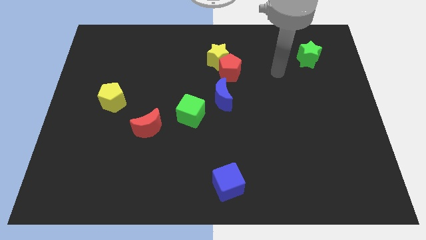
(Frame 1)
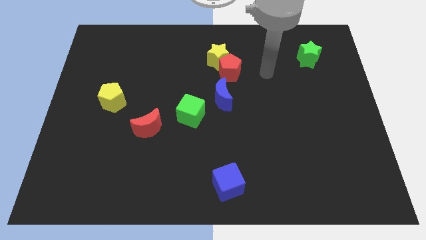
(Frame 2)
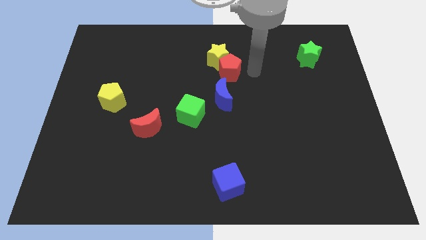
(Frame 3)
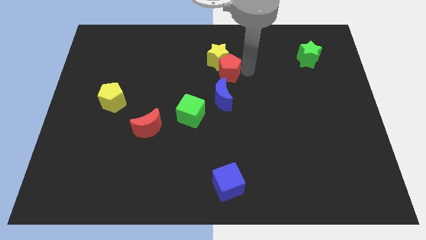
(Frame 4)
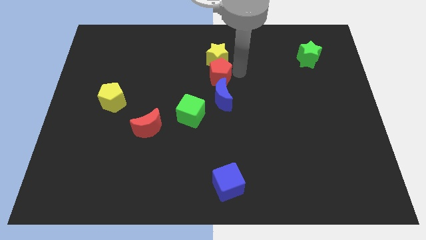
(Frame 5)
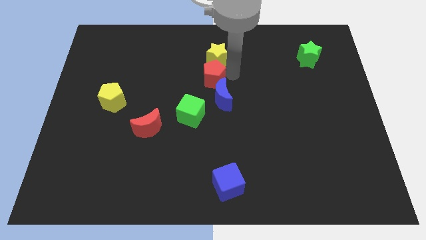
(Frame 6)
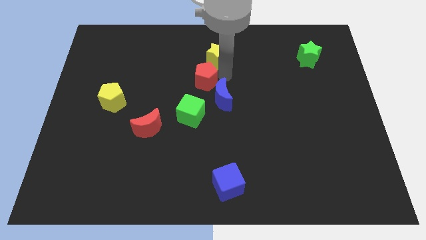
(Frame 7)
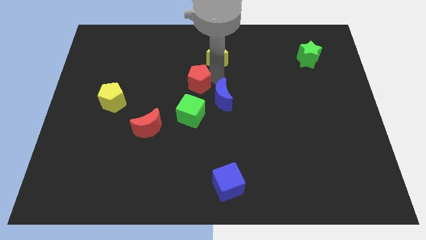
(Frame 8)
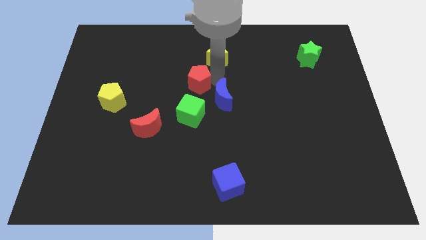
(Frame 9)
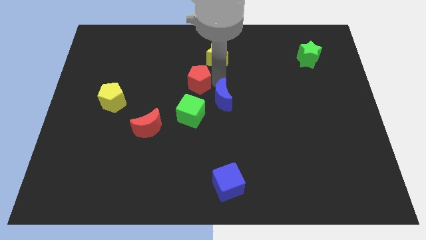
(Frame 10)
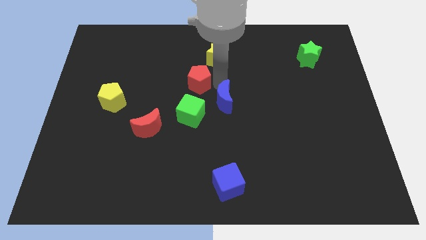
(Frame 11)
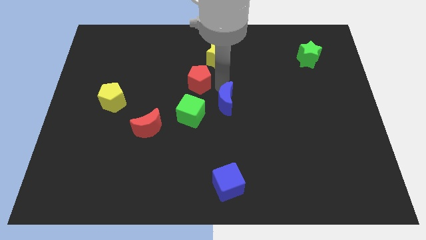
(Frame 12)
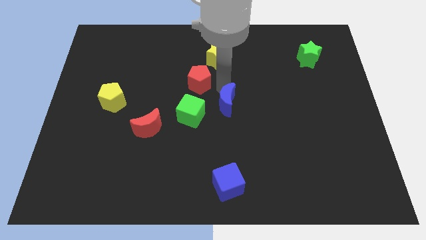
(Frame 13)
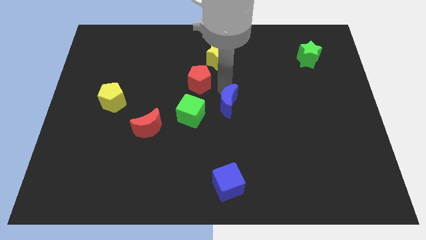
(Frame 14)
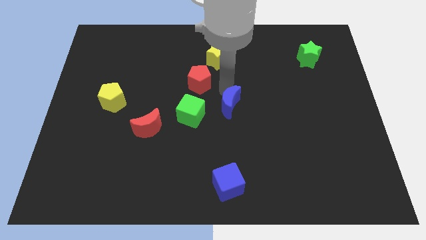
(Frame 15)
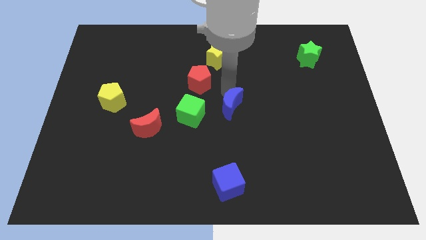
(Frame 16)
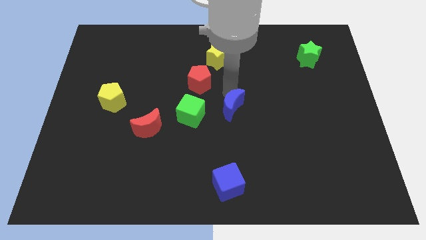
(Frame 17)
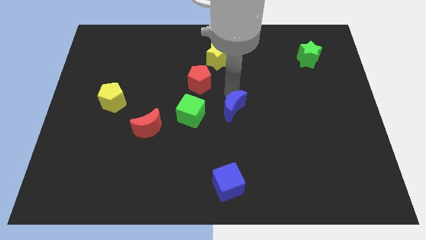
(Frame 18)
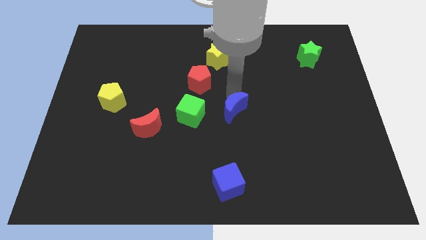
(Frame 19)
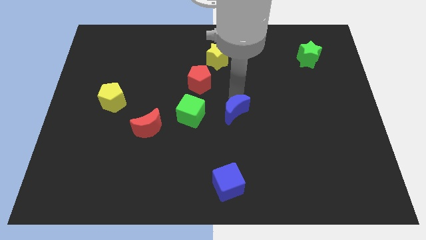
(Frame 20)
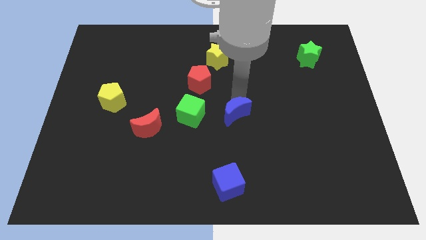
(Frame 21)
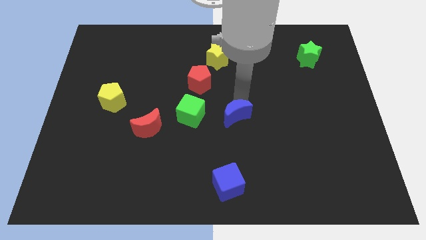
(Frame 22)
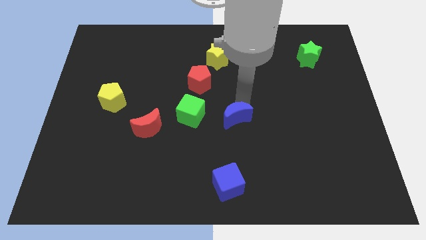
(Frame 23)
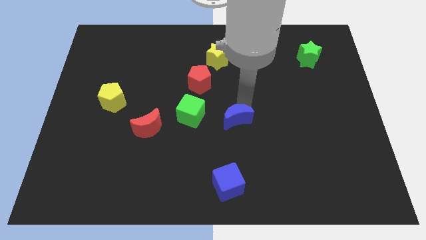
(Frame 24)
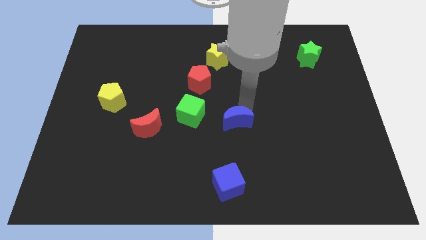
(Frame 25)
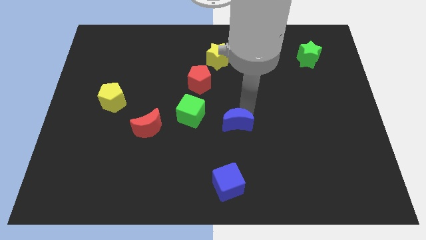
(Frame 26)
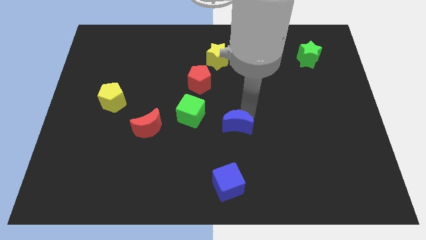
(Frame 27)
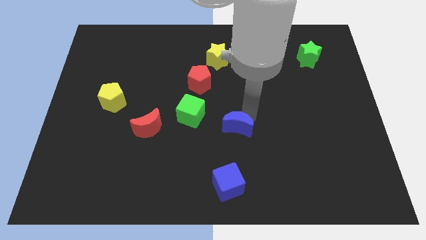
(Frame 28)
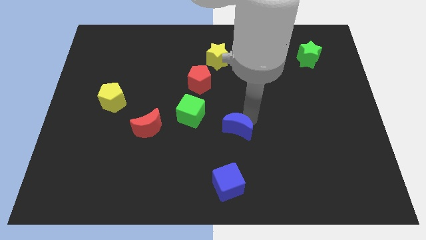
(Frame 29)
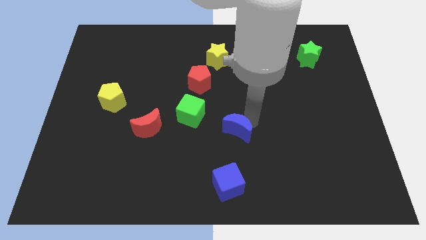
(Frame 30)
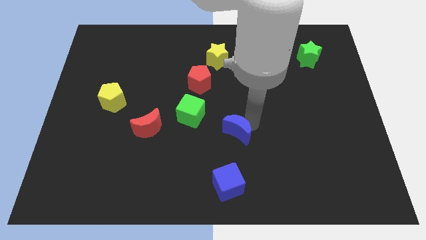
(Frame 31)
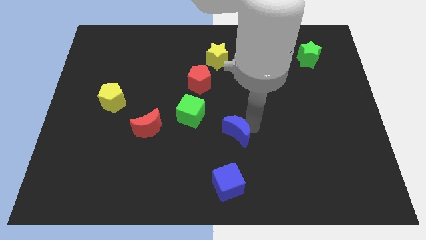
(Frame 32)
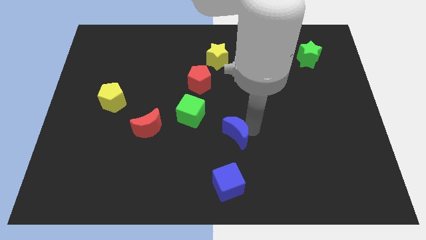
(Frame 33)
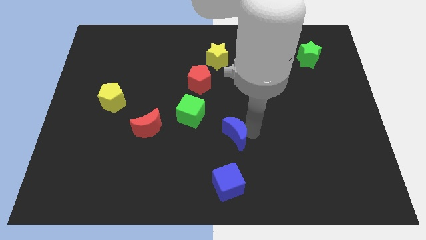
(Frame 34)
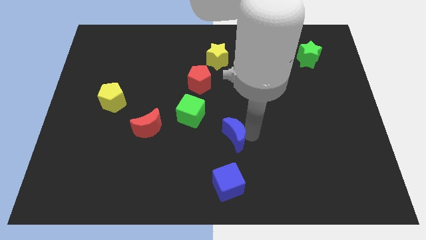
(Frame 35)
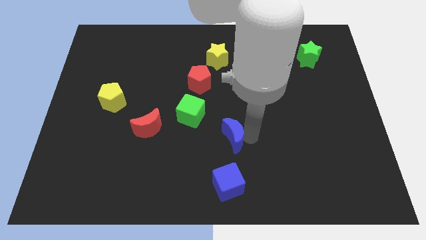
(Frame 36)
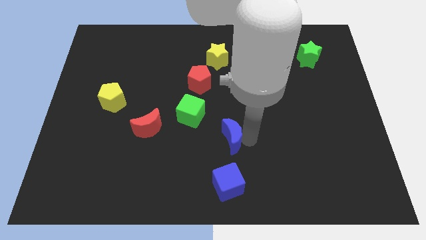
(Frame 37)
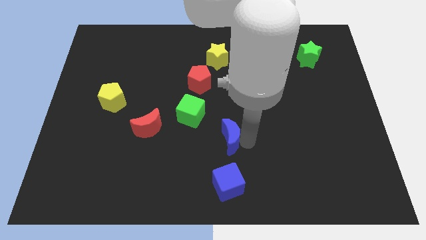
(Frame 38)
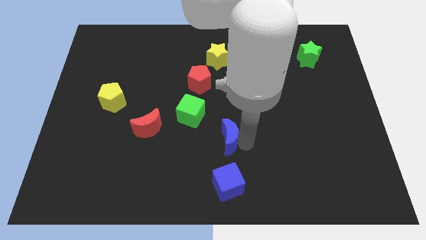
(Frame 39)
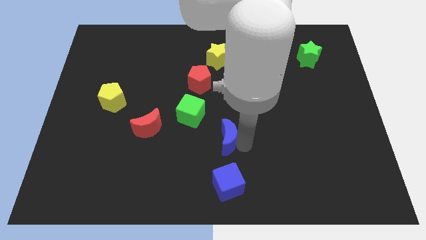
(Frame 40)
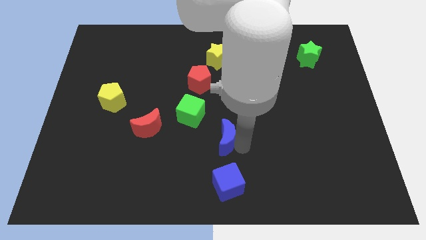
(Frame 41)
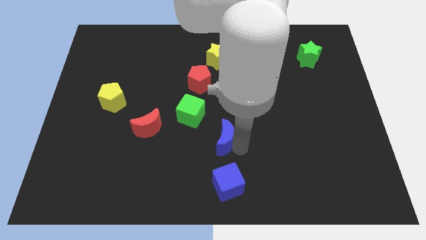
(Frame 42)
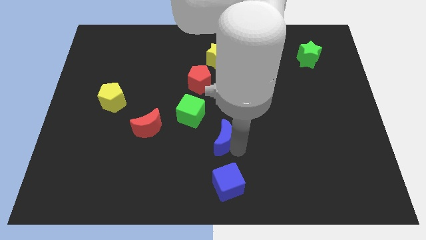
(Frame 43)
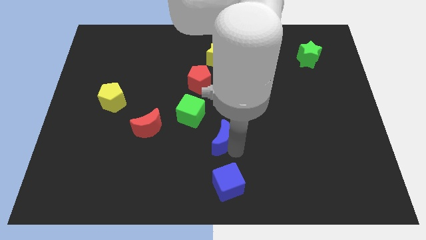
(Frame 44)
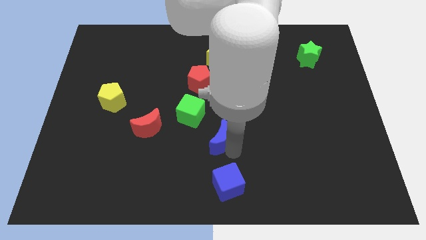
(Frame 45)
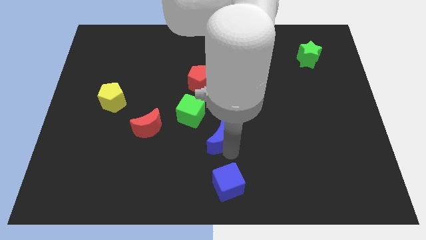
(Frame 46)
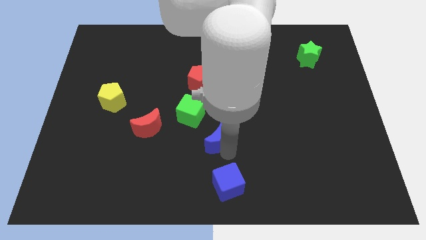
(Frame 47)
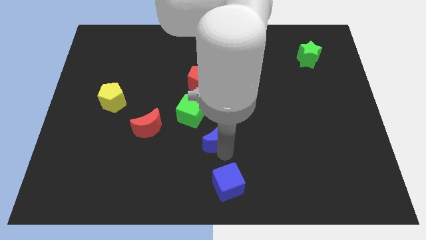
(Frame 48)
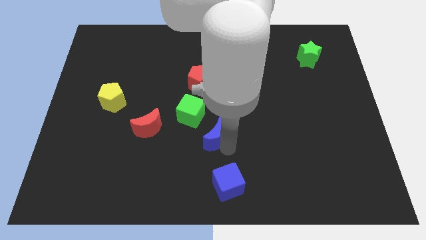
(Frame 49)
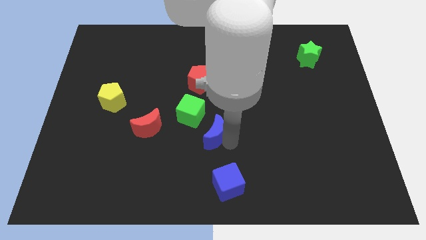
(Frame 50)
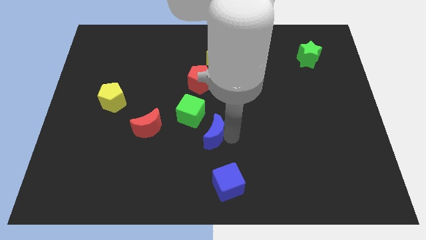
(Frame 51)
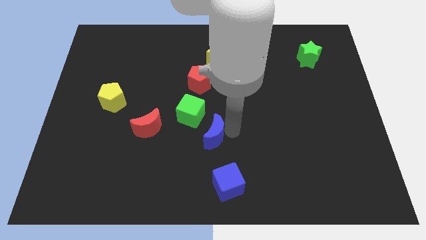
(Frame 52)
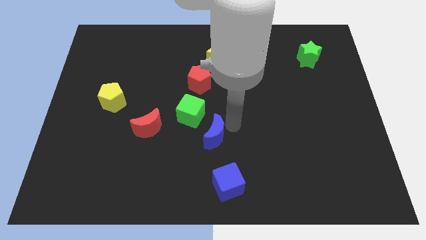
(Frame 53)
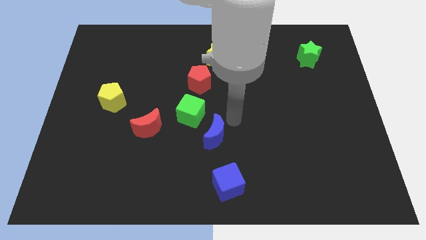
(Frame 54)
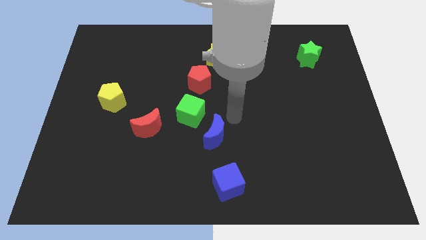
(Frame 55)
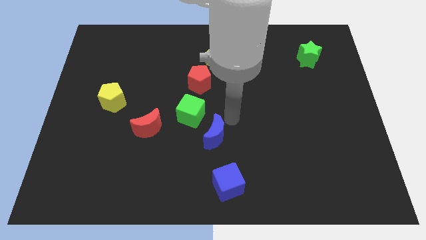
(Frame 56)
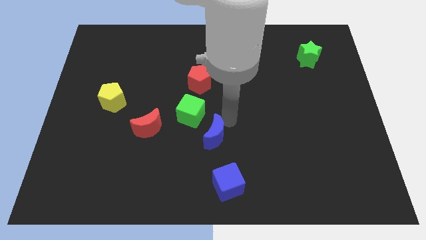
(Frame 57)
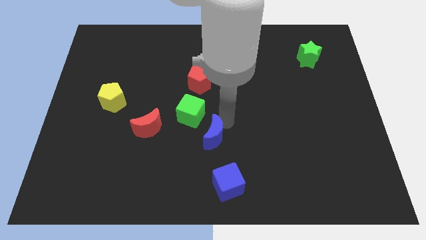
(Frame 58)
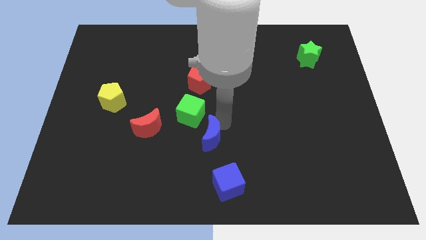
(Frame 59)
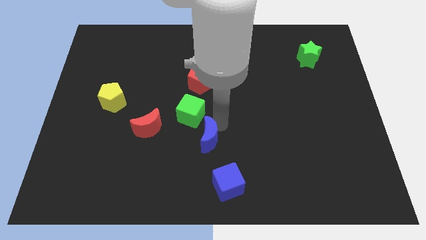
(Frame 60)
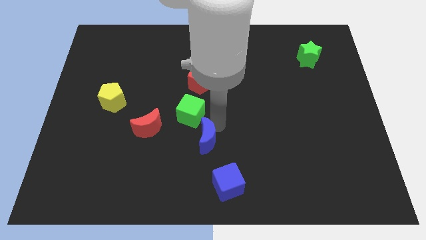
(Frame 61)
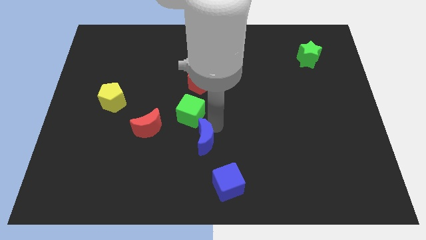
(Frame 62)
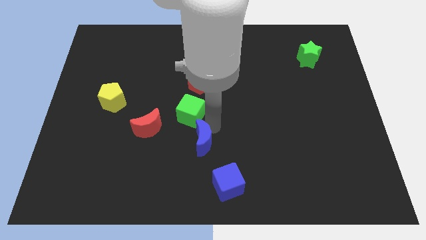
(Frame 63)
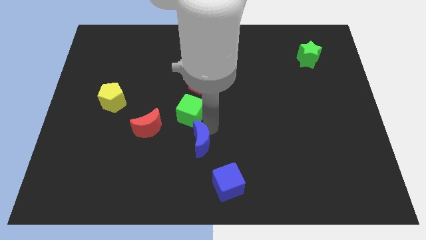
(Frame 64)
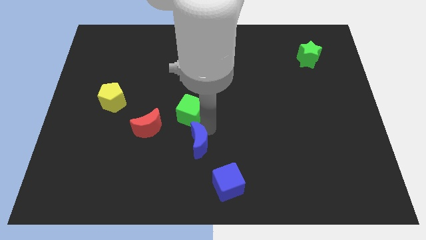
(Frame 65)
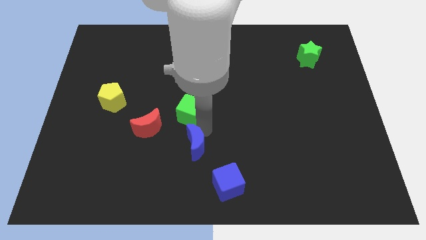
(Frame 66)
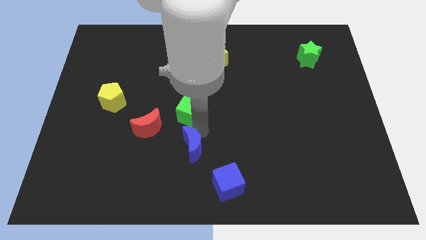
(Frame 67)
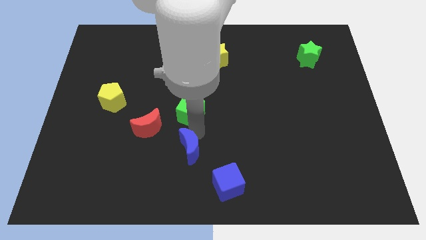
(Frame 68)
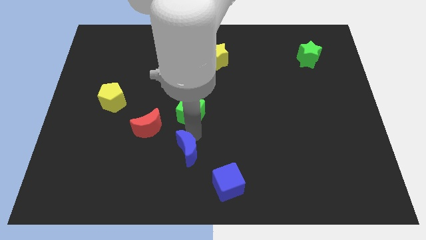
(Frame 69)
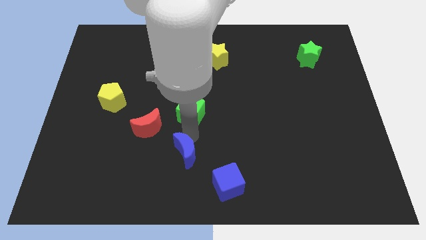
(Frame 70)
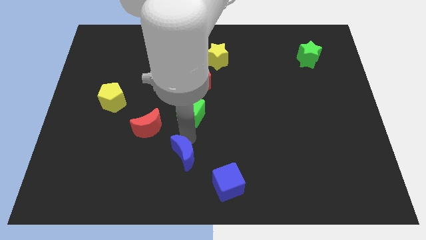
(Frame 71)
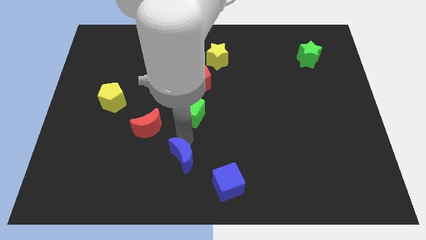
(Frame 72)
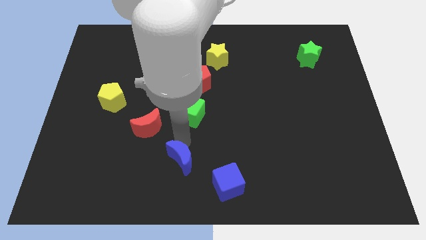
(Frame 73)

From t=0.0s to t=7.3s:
push the blue moon to the bottom side
